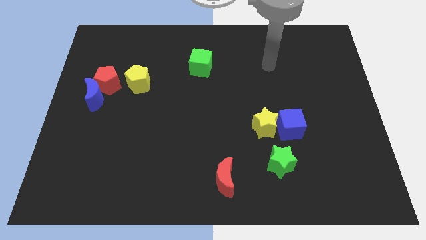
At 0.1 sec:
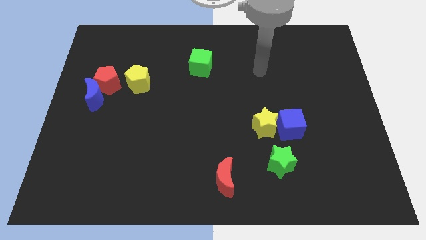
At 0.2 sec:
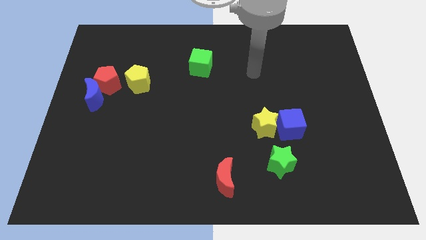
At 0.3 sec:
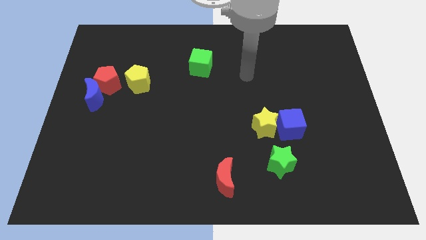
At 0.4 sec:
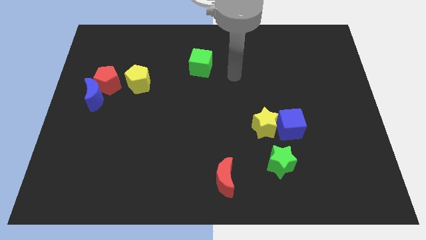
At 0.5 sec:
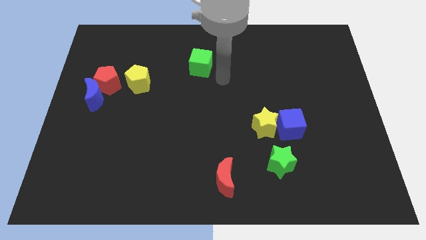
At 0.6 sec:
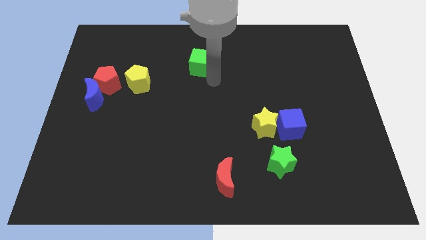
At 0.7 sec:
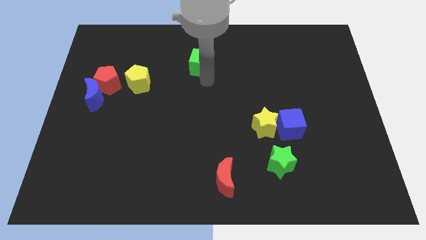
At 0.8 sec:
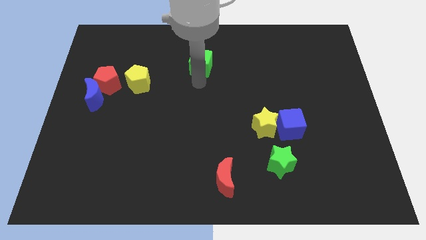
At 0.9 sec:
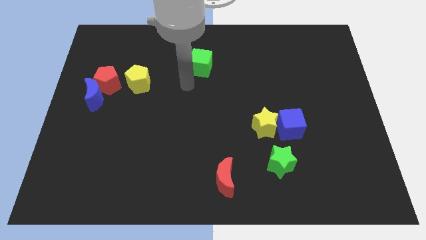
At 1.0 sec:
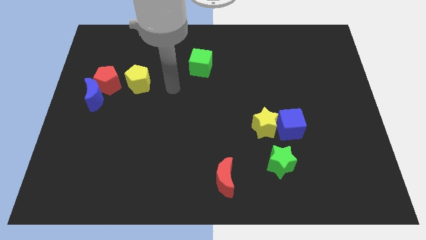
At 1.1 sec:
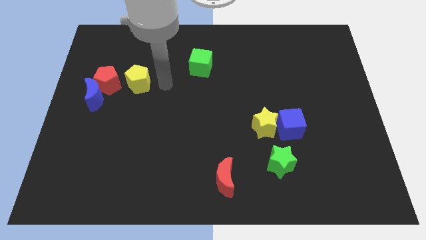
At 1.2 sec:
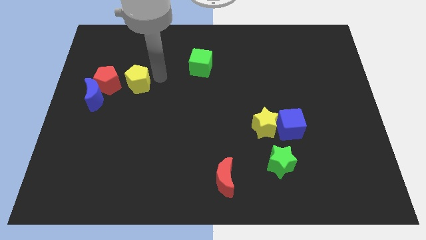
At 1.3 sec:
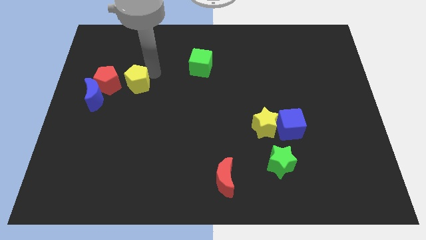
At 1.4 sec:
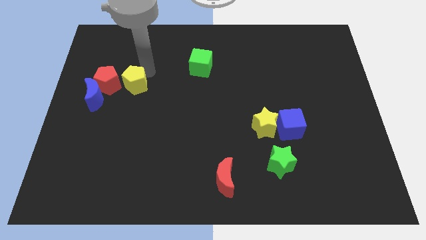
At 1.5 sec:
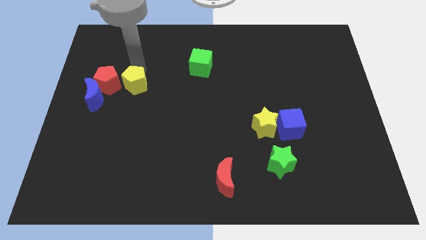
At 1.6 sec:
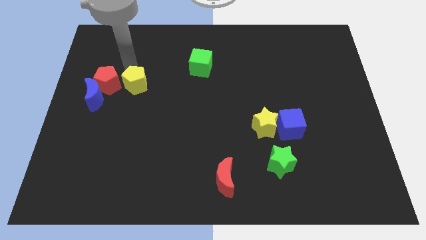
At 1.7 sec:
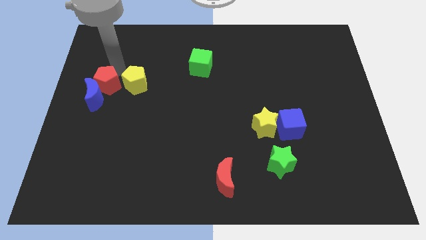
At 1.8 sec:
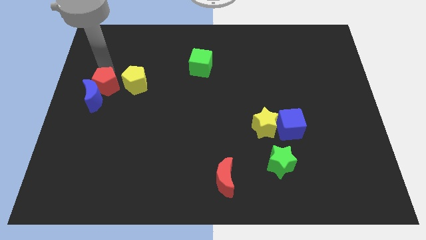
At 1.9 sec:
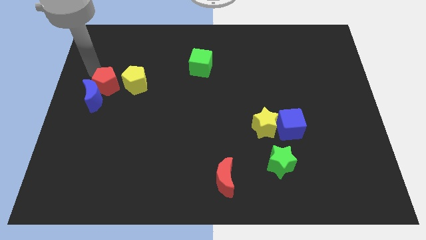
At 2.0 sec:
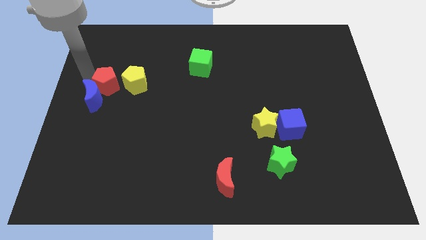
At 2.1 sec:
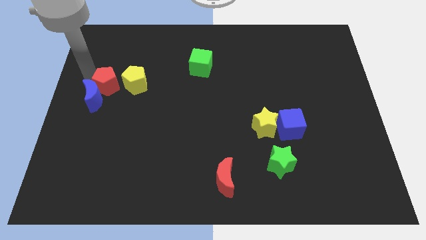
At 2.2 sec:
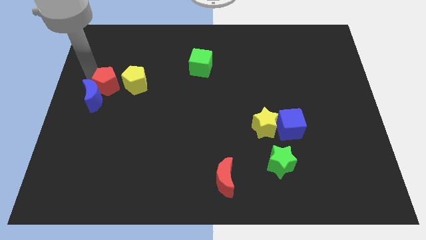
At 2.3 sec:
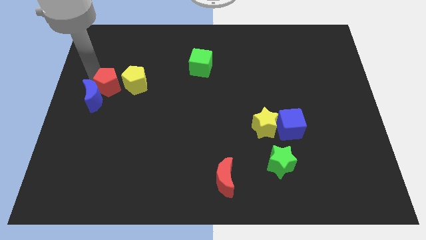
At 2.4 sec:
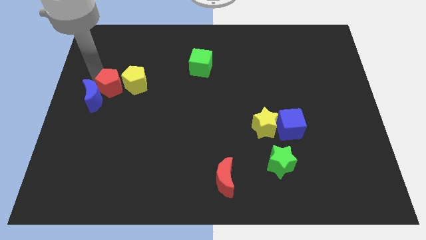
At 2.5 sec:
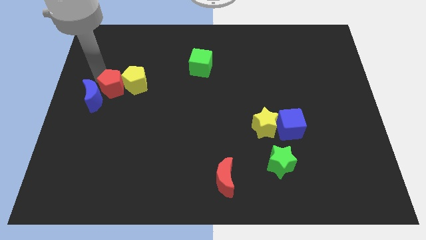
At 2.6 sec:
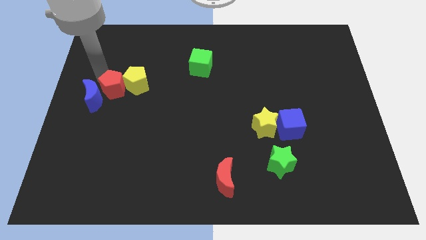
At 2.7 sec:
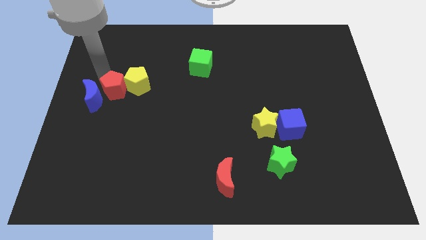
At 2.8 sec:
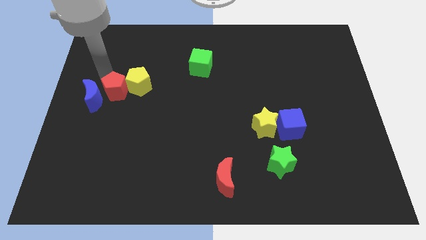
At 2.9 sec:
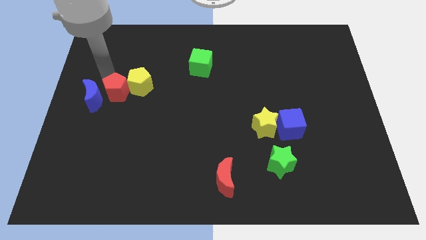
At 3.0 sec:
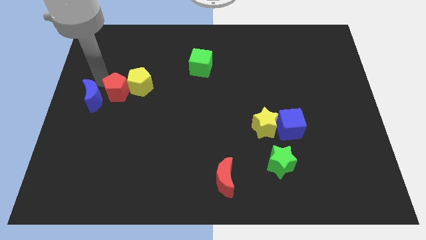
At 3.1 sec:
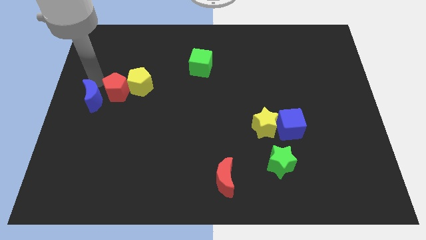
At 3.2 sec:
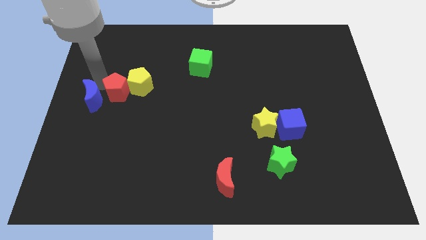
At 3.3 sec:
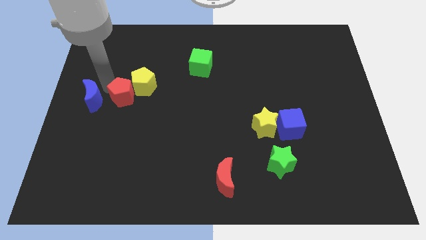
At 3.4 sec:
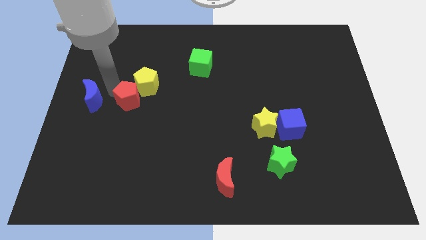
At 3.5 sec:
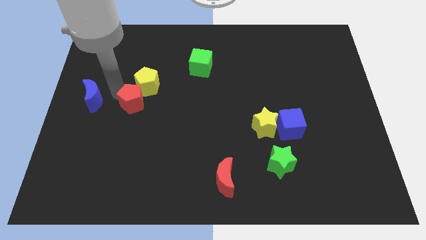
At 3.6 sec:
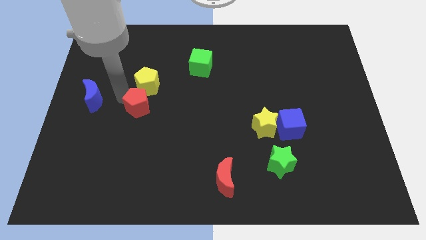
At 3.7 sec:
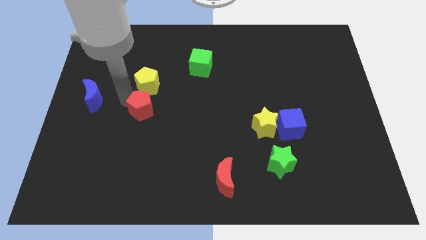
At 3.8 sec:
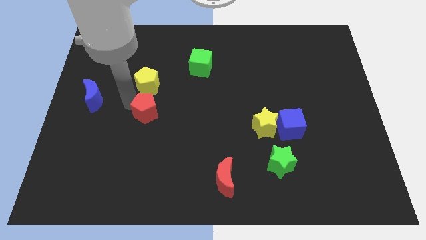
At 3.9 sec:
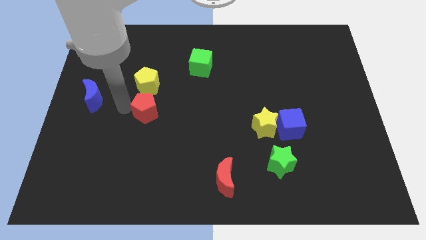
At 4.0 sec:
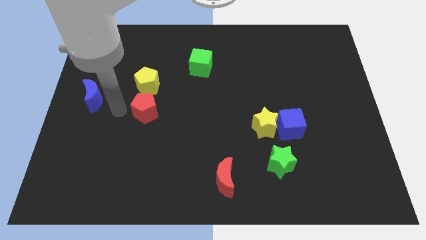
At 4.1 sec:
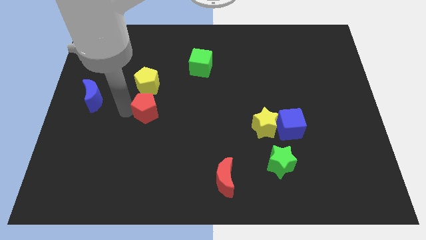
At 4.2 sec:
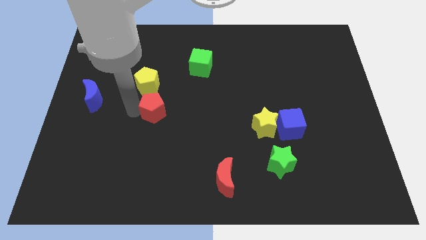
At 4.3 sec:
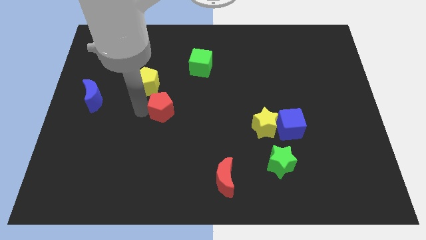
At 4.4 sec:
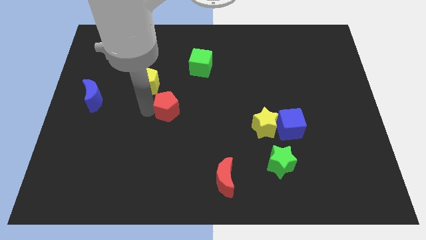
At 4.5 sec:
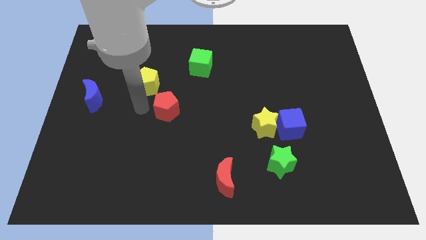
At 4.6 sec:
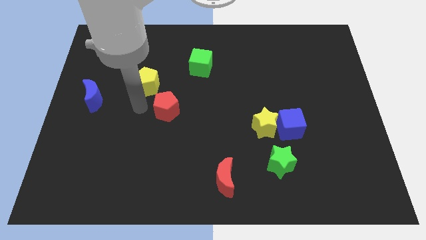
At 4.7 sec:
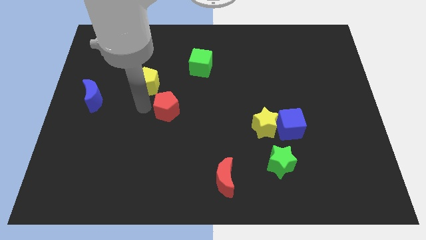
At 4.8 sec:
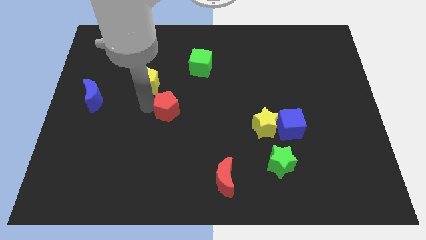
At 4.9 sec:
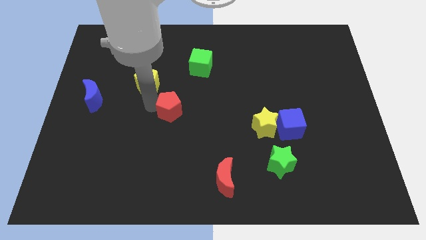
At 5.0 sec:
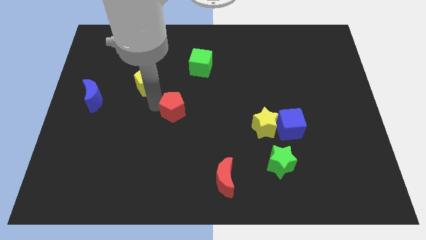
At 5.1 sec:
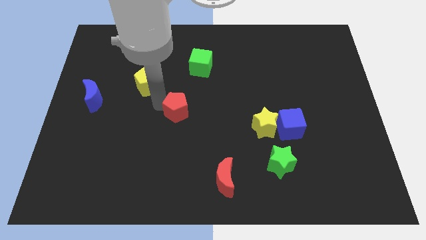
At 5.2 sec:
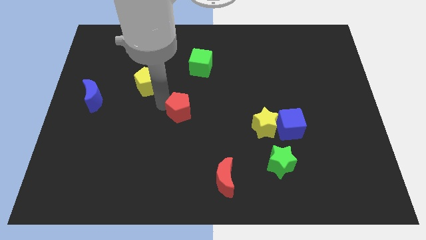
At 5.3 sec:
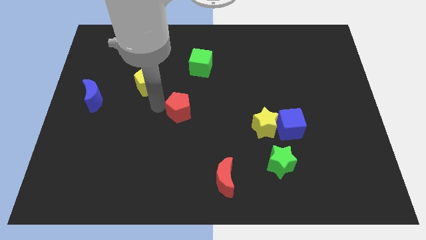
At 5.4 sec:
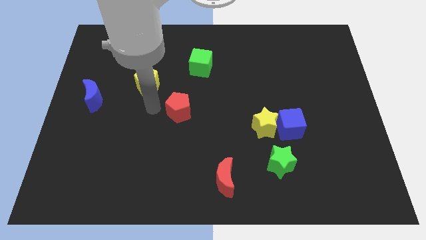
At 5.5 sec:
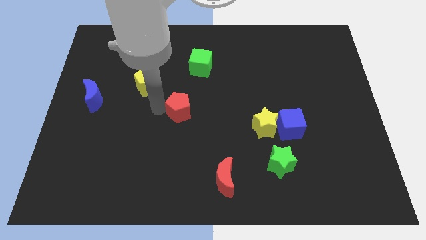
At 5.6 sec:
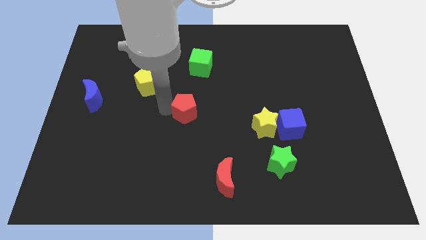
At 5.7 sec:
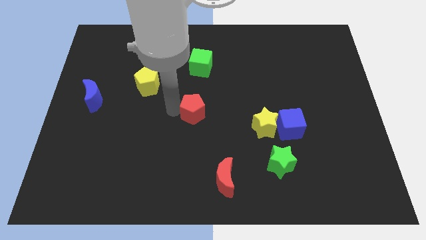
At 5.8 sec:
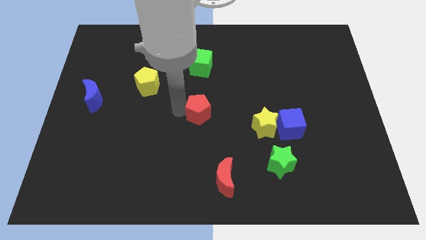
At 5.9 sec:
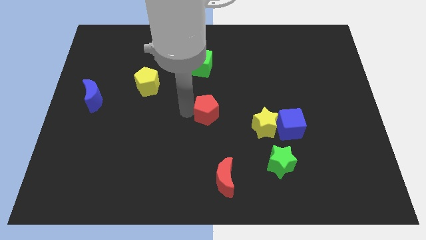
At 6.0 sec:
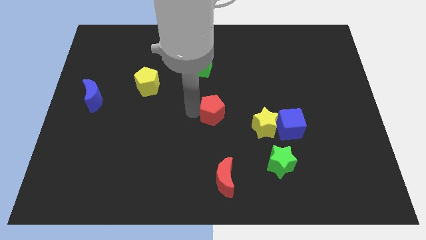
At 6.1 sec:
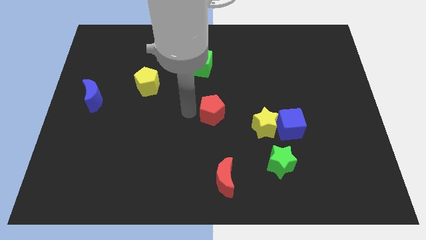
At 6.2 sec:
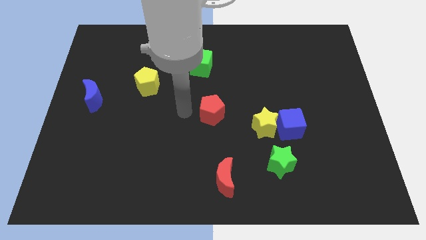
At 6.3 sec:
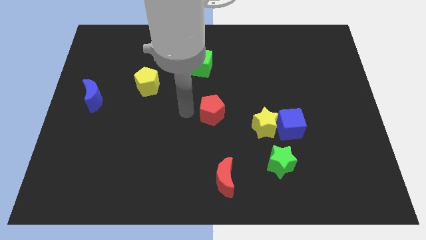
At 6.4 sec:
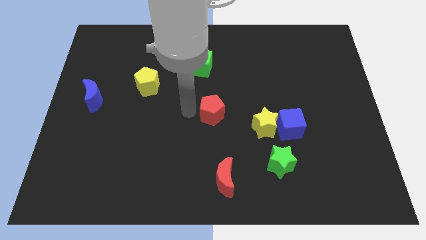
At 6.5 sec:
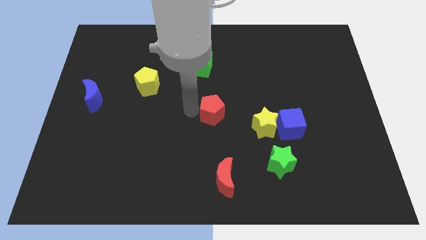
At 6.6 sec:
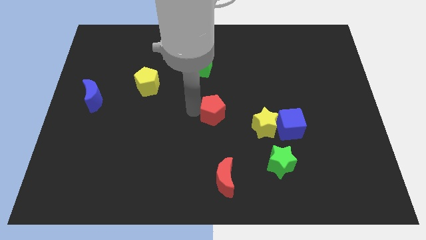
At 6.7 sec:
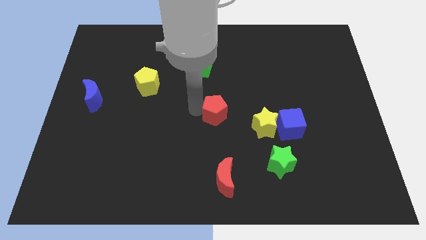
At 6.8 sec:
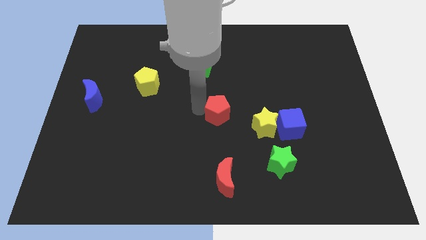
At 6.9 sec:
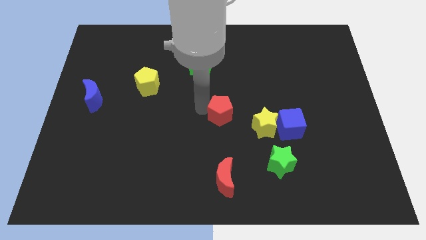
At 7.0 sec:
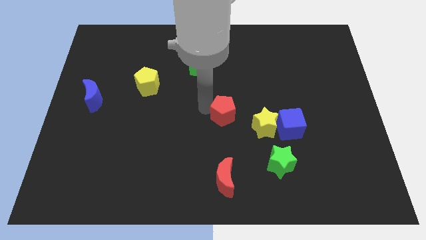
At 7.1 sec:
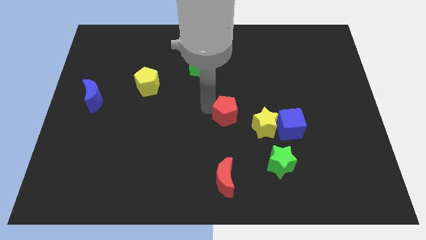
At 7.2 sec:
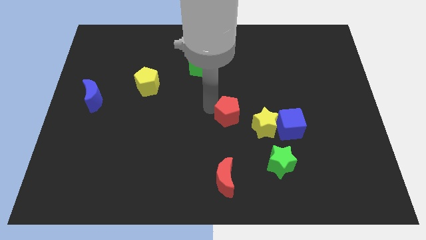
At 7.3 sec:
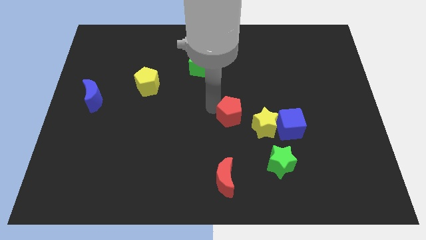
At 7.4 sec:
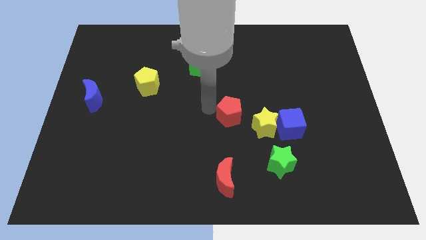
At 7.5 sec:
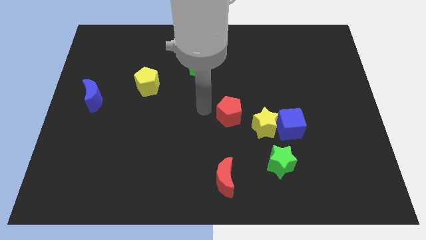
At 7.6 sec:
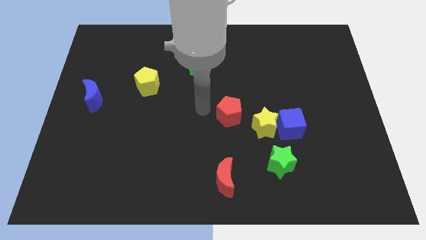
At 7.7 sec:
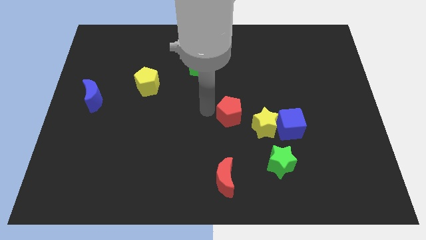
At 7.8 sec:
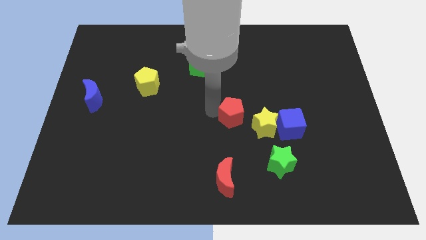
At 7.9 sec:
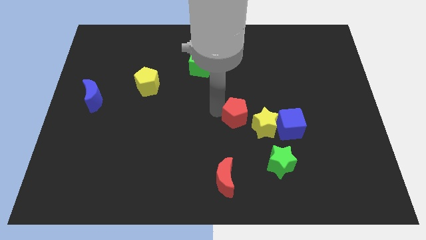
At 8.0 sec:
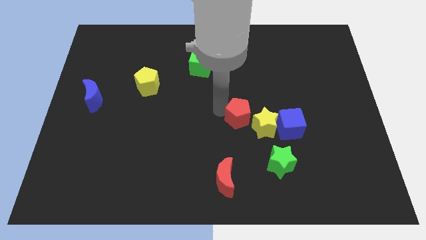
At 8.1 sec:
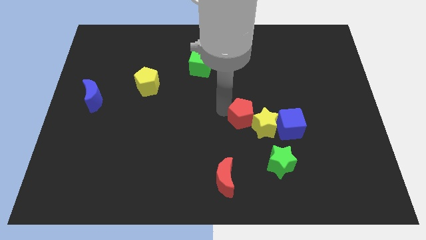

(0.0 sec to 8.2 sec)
put the red pentagon to the yellow star
